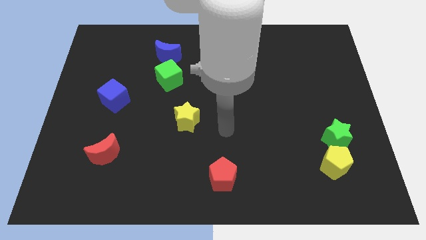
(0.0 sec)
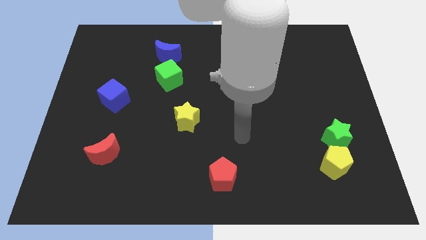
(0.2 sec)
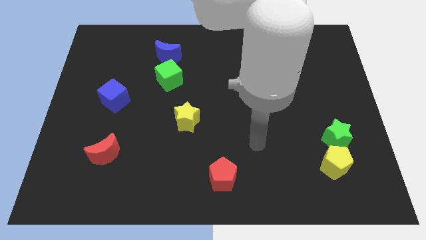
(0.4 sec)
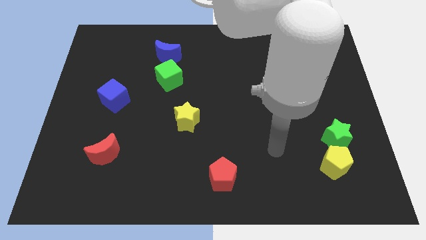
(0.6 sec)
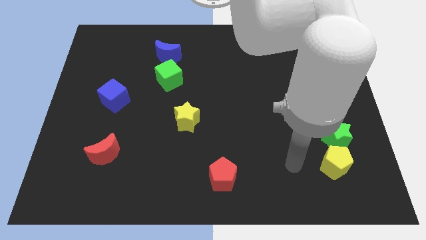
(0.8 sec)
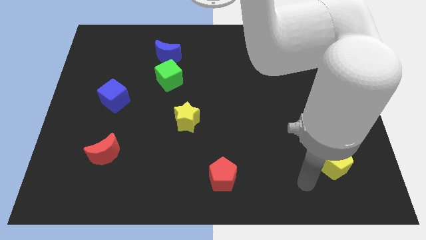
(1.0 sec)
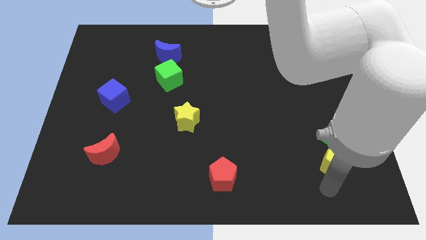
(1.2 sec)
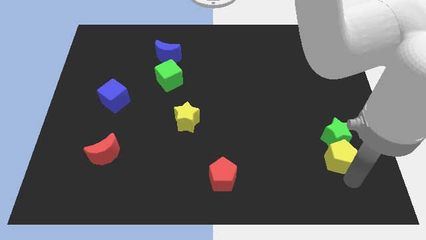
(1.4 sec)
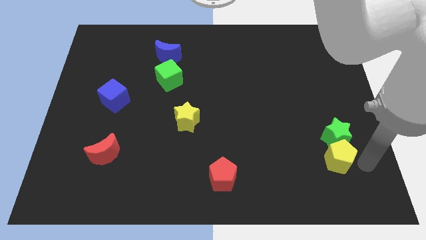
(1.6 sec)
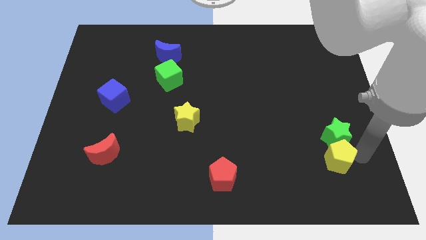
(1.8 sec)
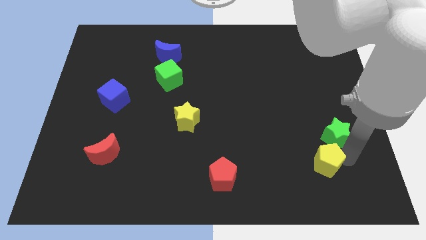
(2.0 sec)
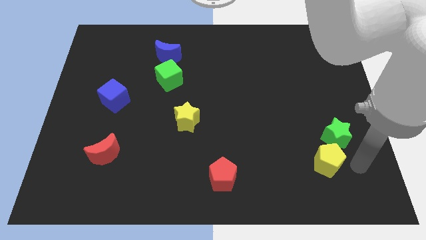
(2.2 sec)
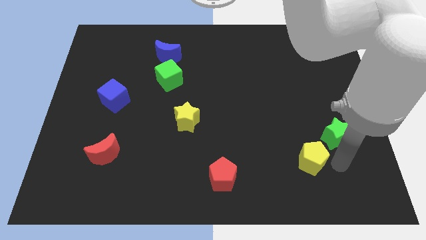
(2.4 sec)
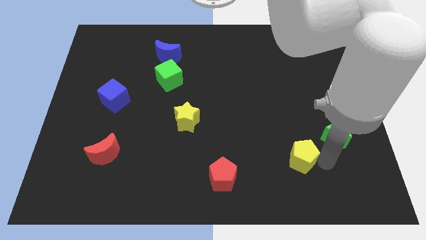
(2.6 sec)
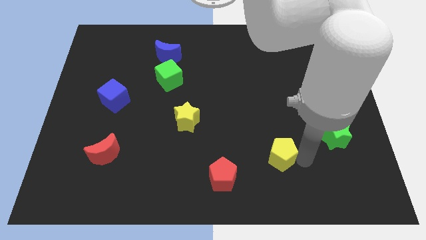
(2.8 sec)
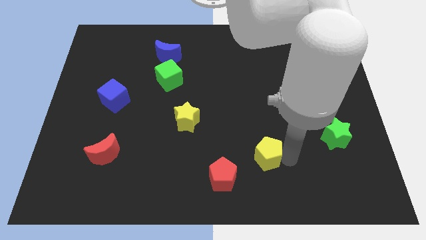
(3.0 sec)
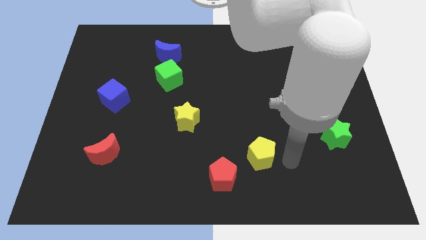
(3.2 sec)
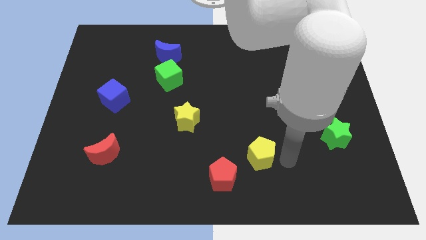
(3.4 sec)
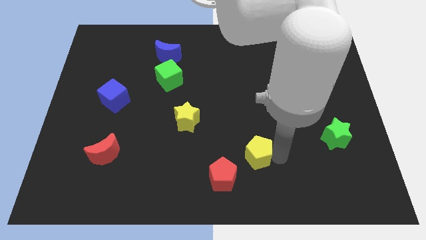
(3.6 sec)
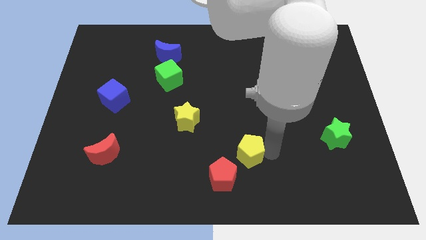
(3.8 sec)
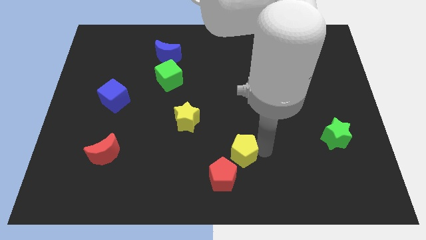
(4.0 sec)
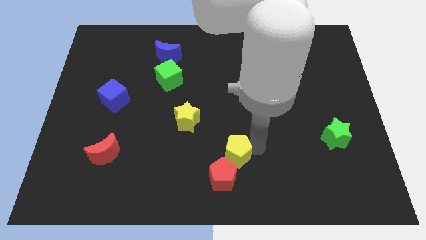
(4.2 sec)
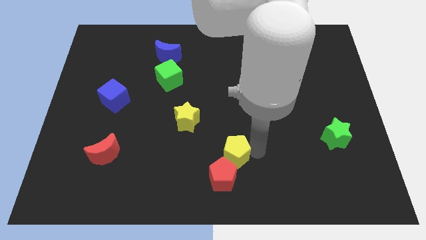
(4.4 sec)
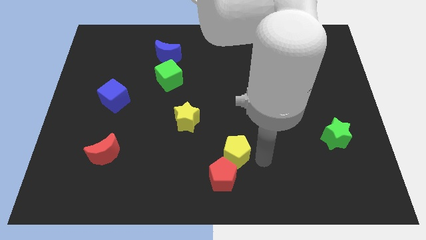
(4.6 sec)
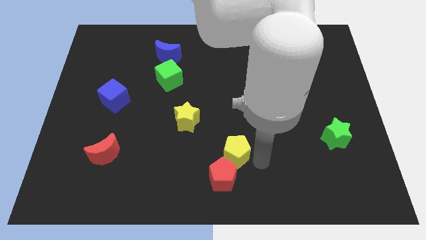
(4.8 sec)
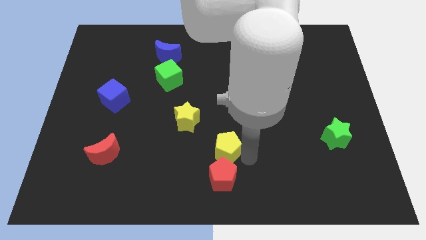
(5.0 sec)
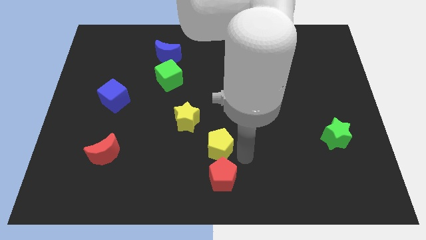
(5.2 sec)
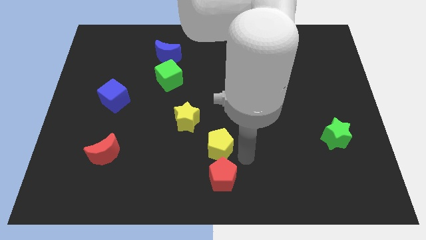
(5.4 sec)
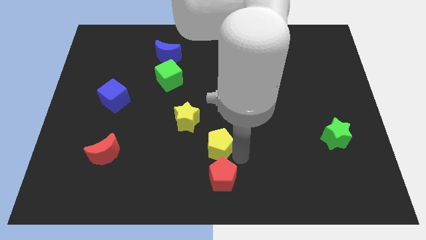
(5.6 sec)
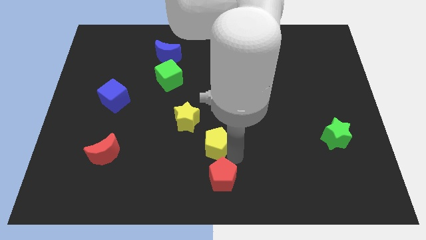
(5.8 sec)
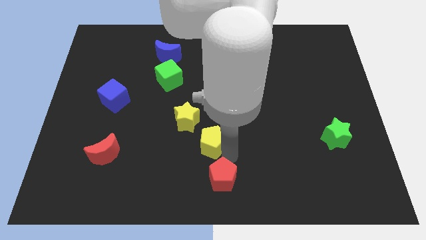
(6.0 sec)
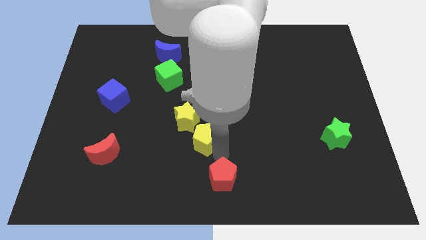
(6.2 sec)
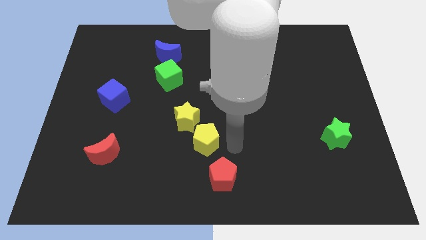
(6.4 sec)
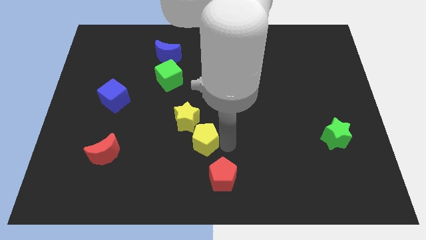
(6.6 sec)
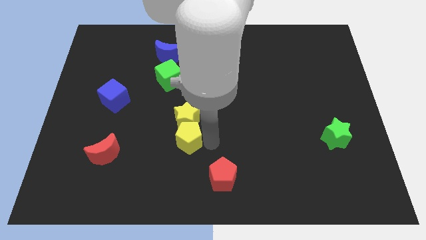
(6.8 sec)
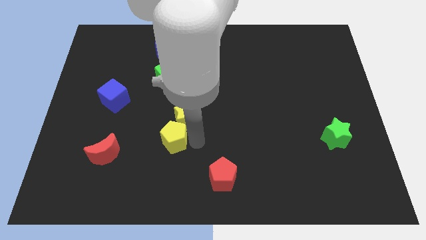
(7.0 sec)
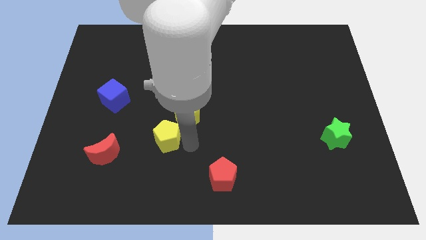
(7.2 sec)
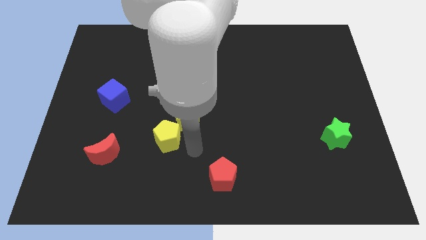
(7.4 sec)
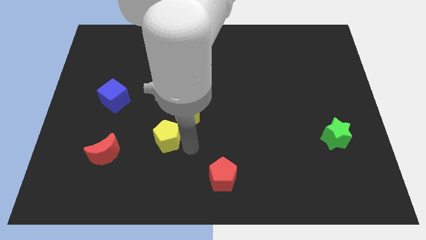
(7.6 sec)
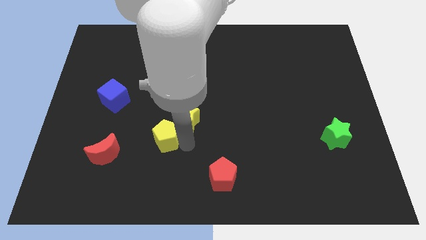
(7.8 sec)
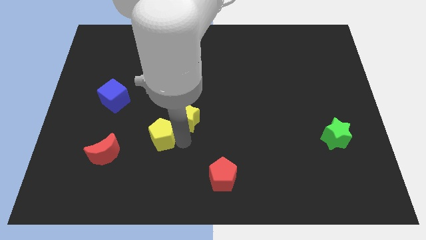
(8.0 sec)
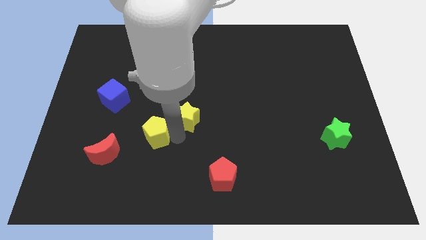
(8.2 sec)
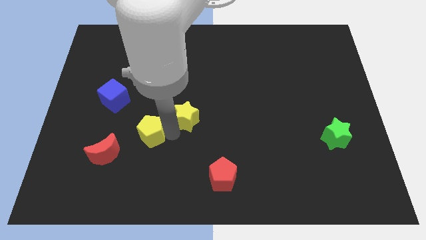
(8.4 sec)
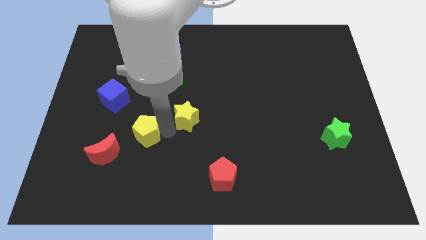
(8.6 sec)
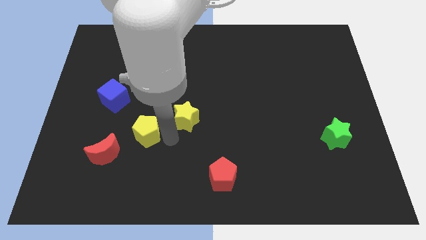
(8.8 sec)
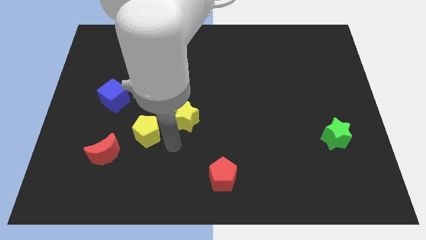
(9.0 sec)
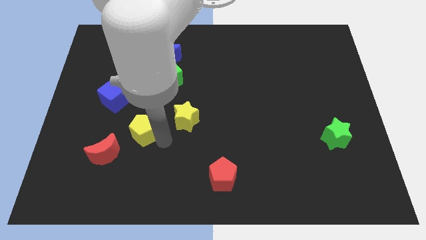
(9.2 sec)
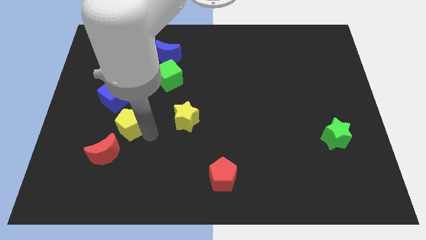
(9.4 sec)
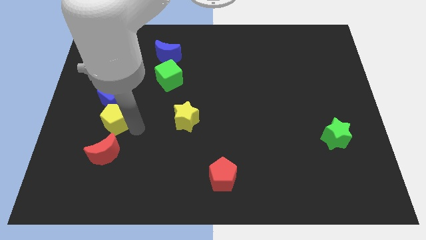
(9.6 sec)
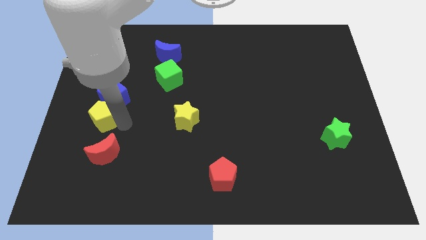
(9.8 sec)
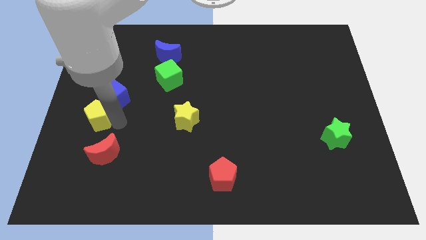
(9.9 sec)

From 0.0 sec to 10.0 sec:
move the yellow pentagon to the left side

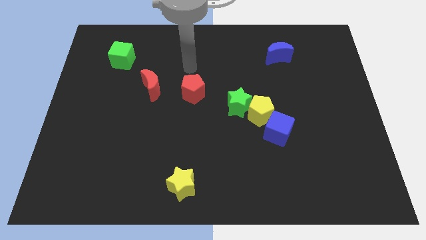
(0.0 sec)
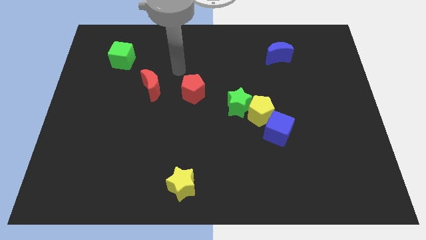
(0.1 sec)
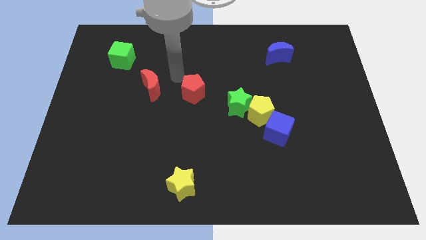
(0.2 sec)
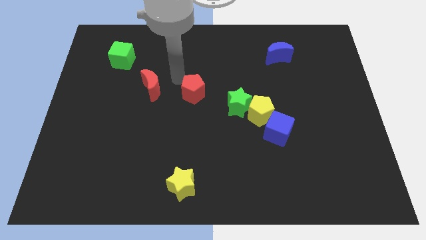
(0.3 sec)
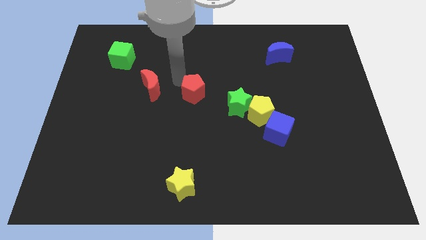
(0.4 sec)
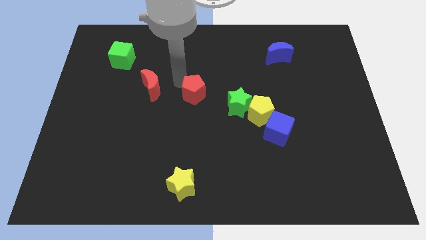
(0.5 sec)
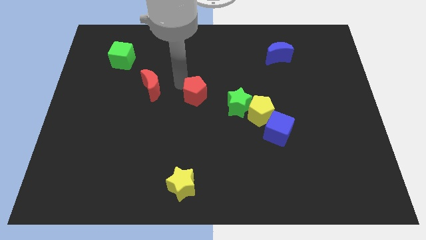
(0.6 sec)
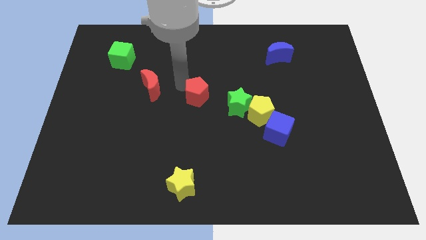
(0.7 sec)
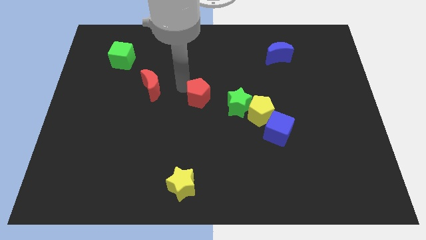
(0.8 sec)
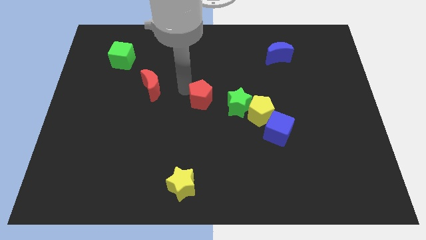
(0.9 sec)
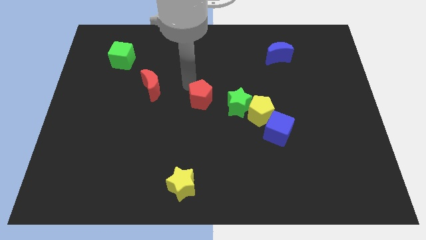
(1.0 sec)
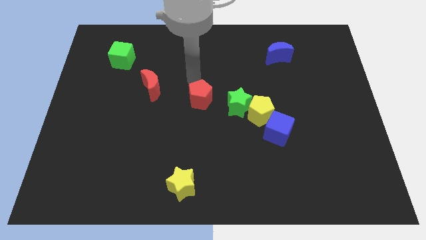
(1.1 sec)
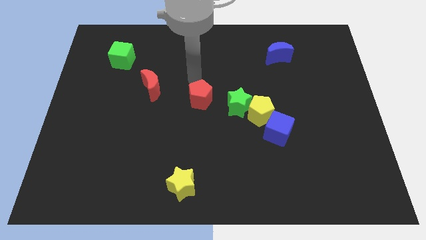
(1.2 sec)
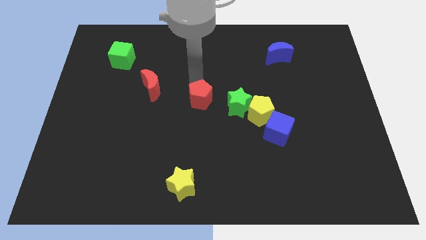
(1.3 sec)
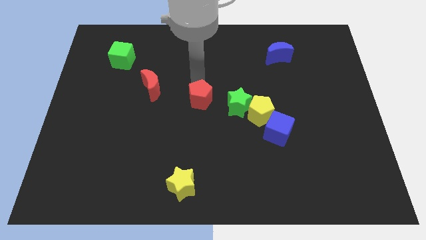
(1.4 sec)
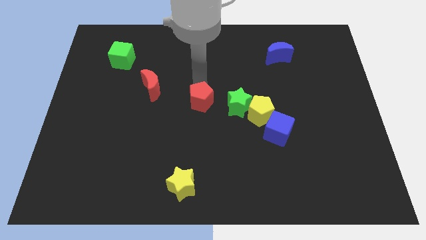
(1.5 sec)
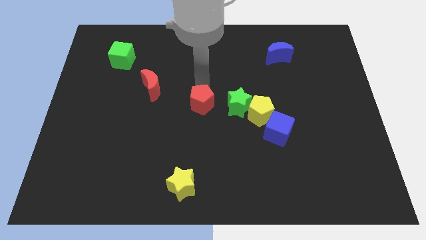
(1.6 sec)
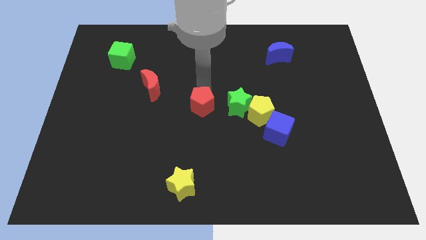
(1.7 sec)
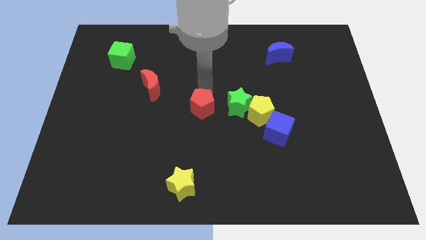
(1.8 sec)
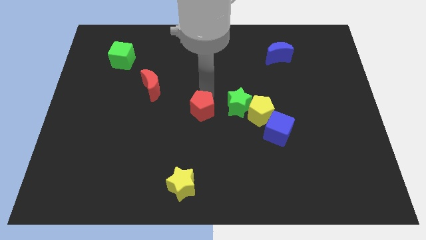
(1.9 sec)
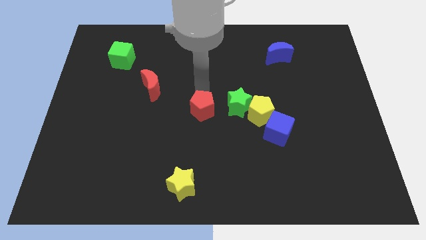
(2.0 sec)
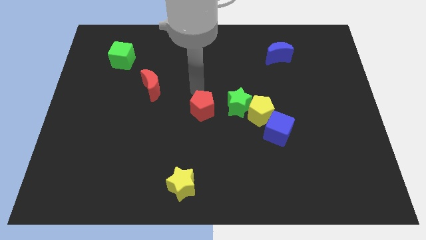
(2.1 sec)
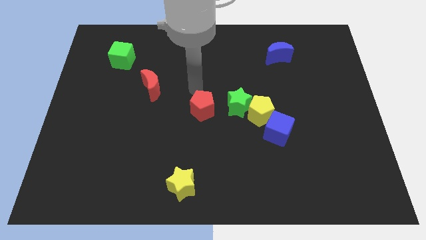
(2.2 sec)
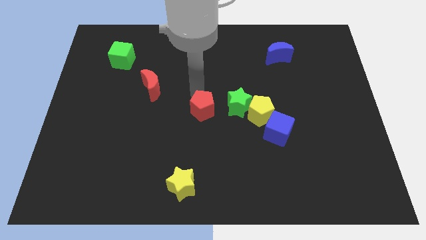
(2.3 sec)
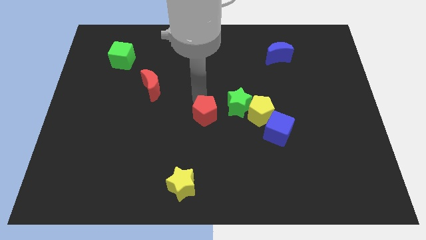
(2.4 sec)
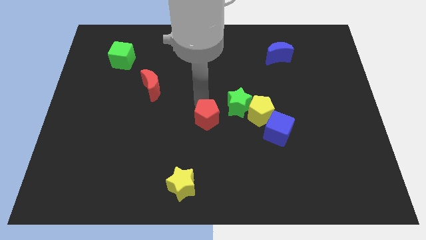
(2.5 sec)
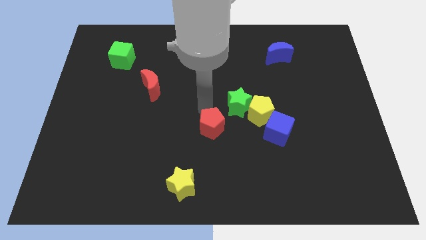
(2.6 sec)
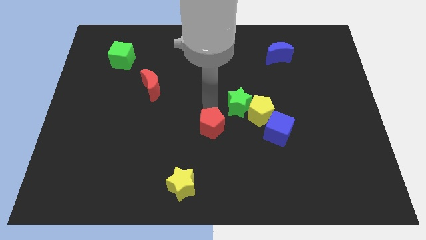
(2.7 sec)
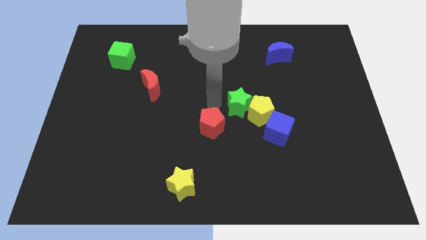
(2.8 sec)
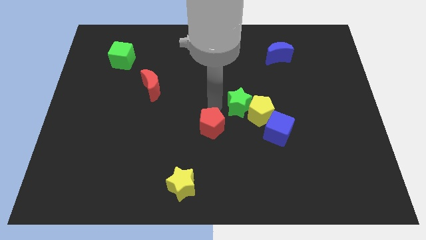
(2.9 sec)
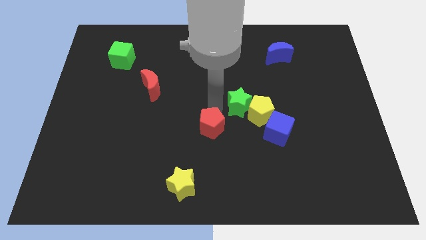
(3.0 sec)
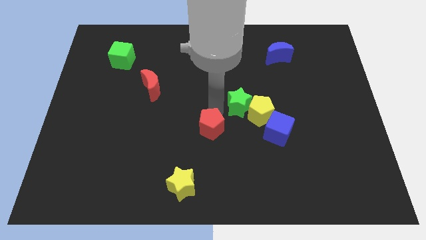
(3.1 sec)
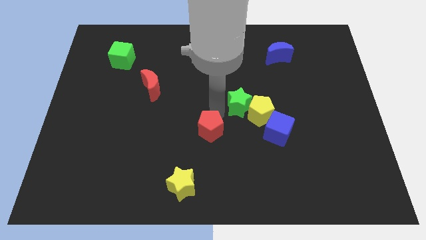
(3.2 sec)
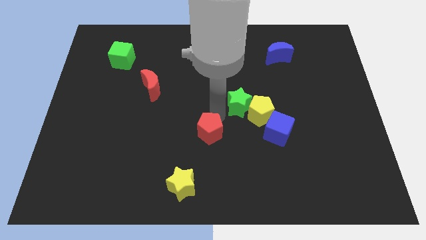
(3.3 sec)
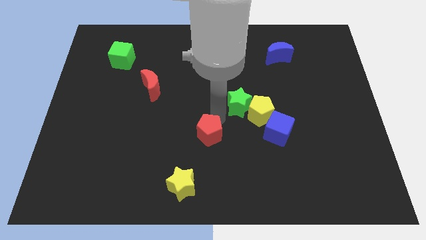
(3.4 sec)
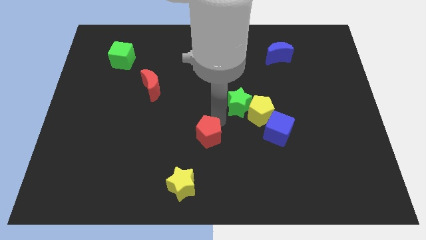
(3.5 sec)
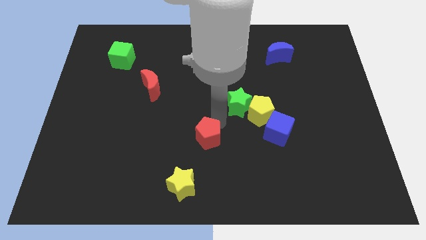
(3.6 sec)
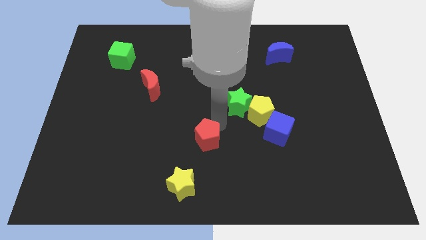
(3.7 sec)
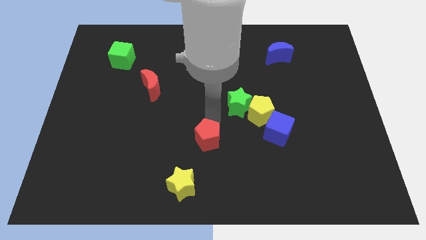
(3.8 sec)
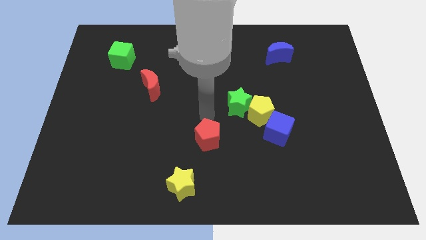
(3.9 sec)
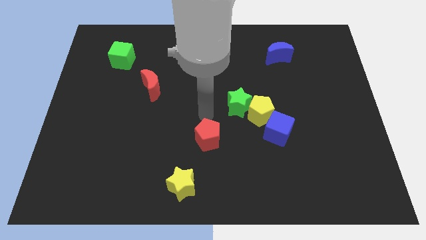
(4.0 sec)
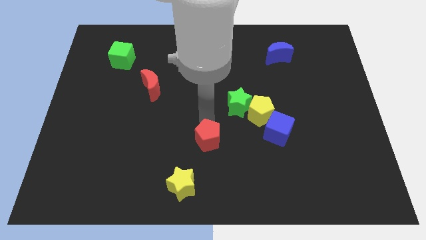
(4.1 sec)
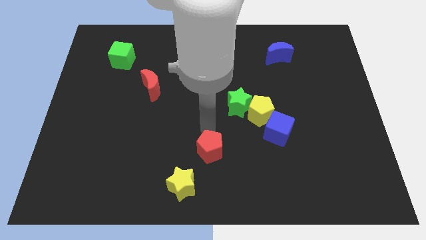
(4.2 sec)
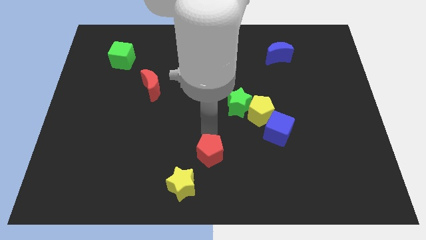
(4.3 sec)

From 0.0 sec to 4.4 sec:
put the red pentagon to the bottom
